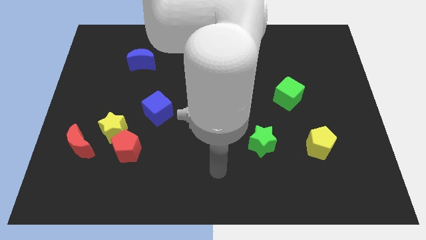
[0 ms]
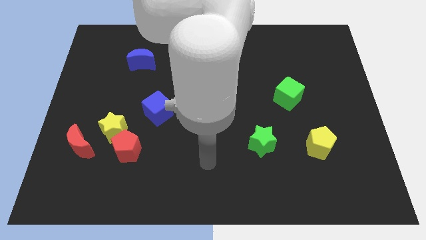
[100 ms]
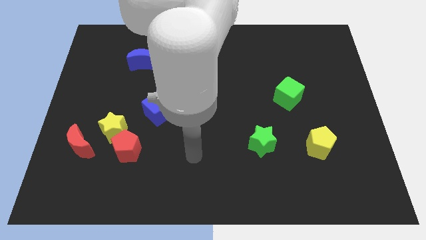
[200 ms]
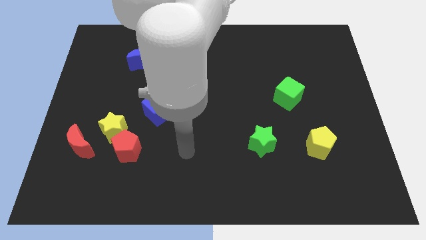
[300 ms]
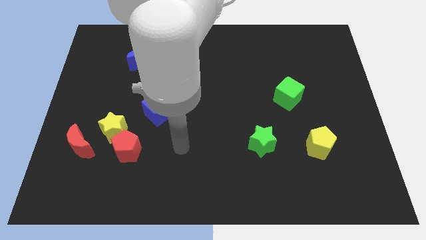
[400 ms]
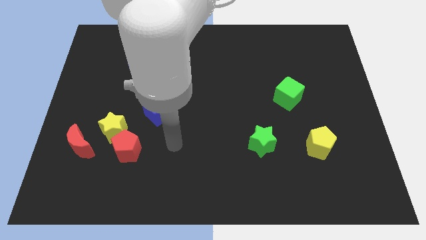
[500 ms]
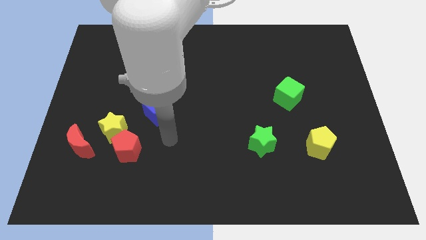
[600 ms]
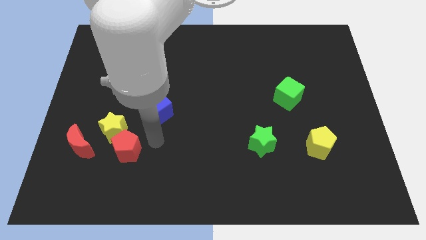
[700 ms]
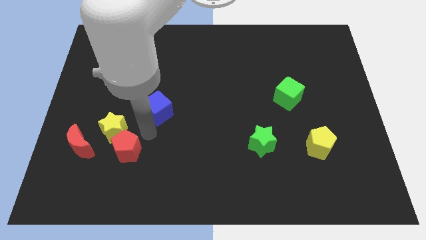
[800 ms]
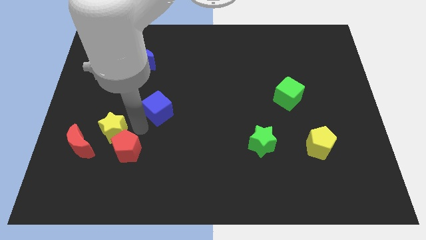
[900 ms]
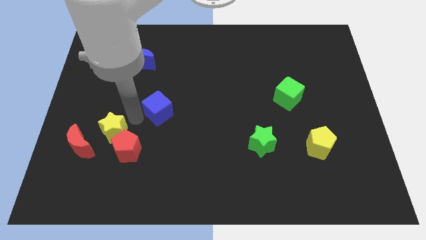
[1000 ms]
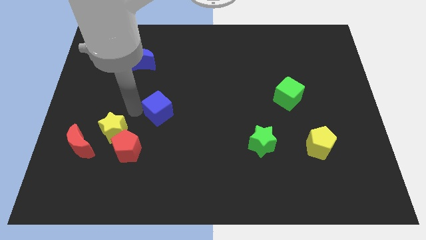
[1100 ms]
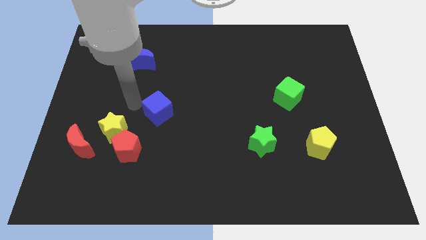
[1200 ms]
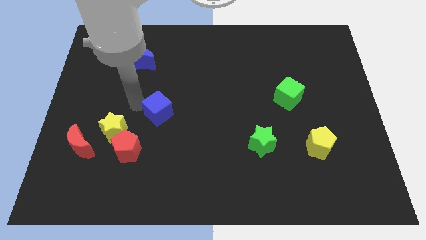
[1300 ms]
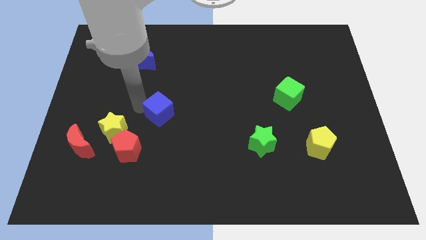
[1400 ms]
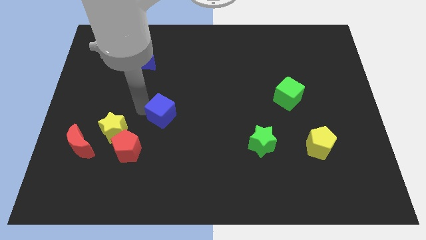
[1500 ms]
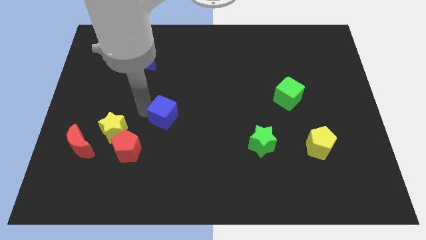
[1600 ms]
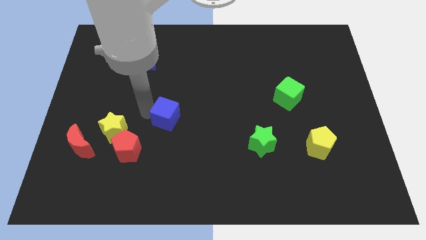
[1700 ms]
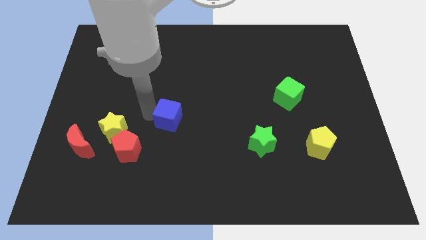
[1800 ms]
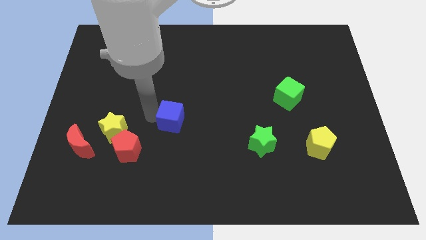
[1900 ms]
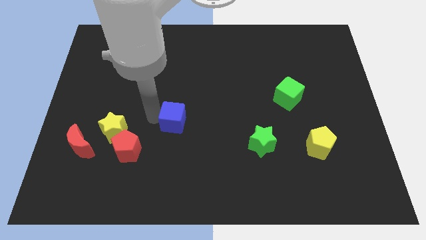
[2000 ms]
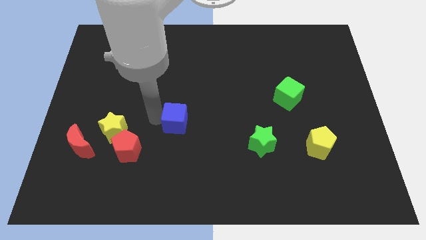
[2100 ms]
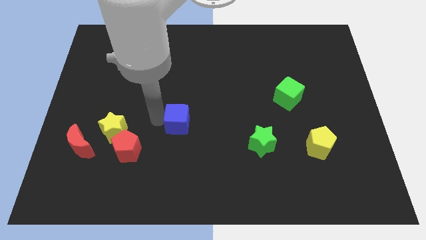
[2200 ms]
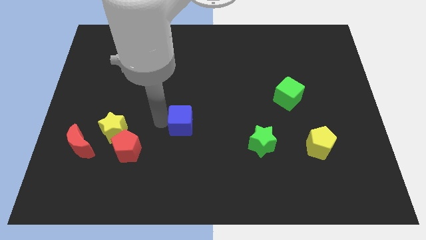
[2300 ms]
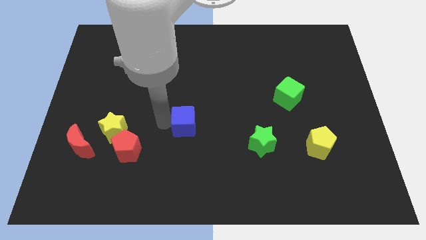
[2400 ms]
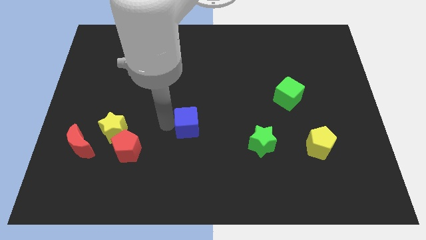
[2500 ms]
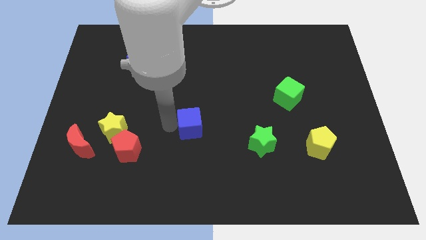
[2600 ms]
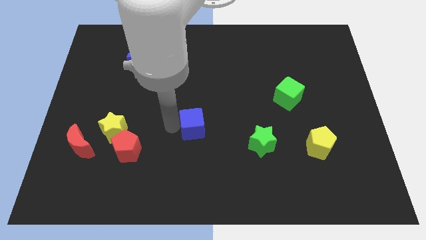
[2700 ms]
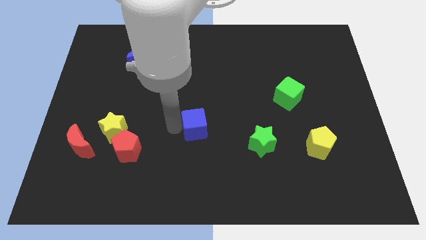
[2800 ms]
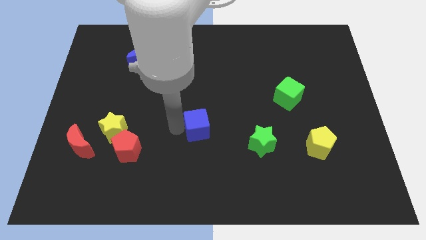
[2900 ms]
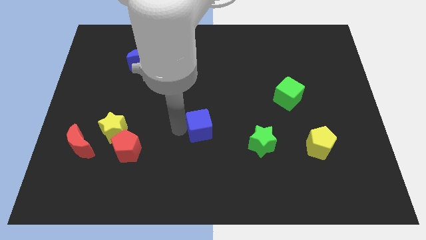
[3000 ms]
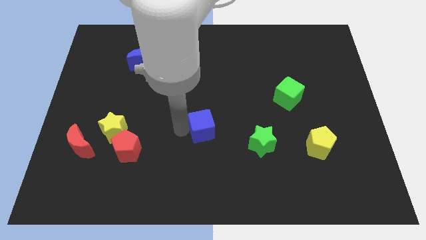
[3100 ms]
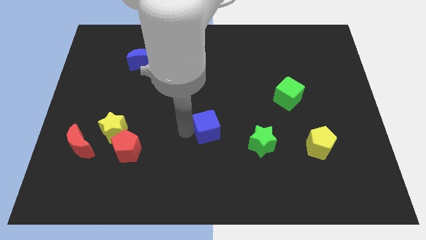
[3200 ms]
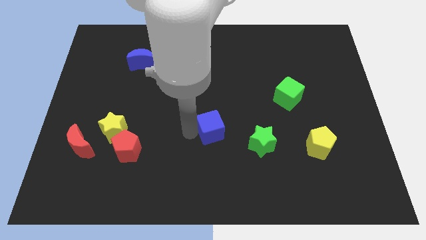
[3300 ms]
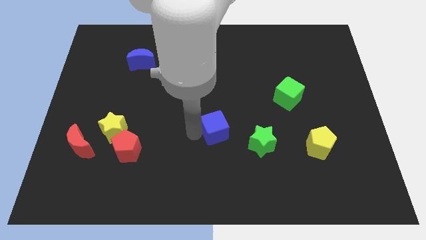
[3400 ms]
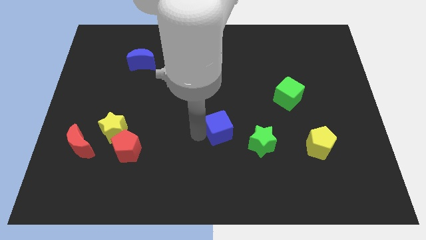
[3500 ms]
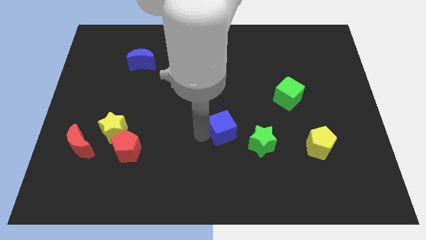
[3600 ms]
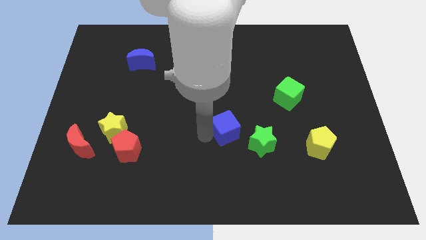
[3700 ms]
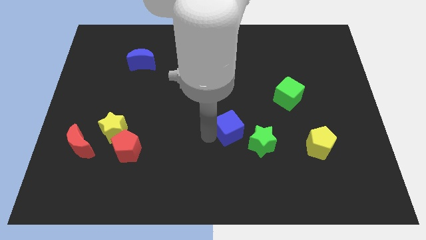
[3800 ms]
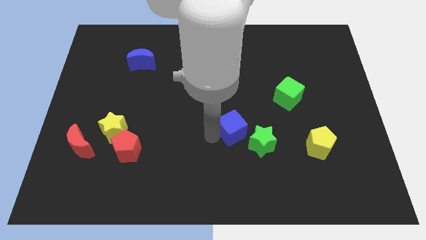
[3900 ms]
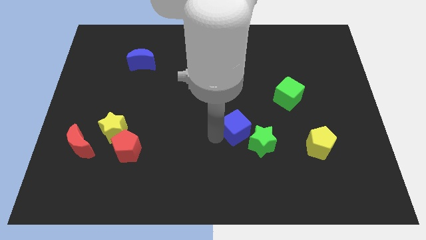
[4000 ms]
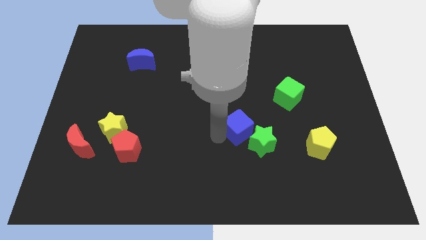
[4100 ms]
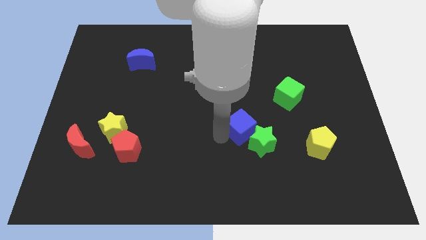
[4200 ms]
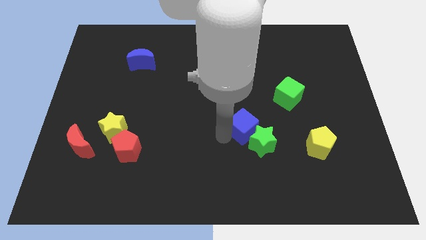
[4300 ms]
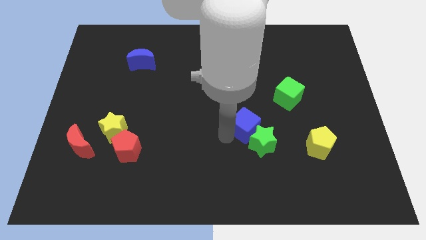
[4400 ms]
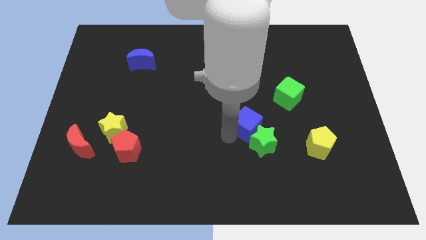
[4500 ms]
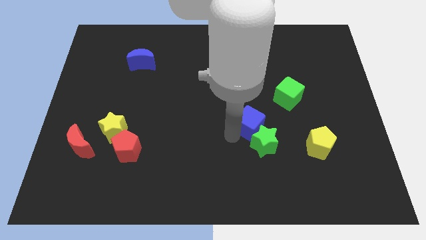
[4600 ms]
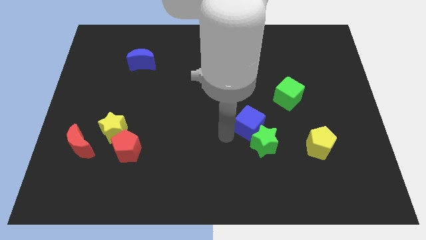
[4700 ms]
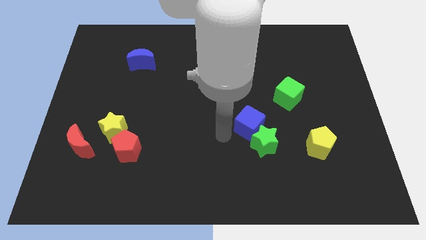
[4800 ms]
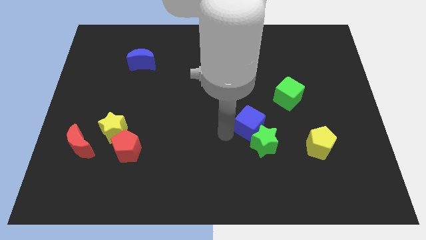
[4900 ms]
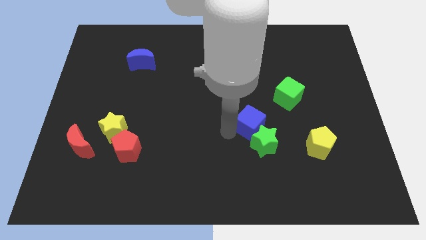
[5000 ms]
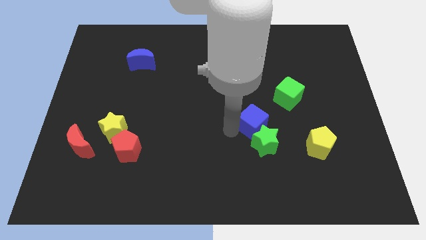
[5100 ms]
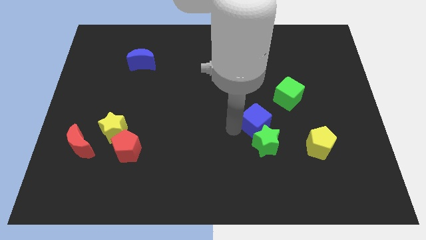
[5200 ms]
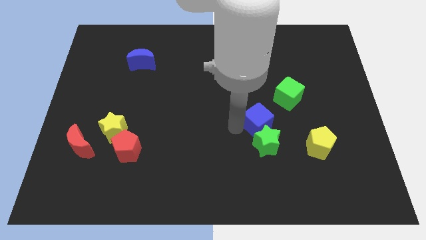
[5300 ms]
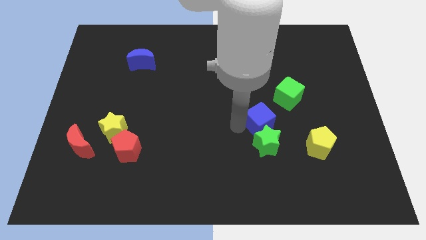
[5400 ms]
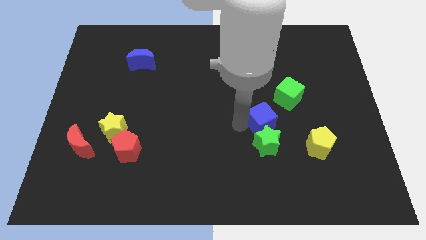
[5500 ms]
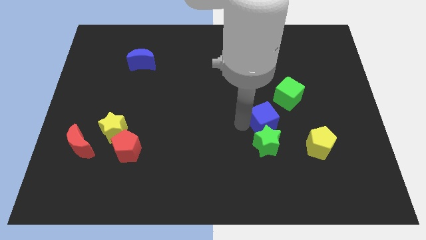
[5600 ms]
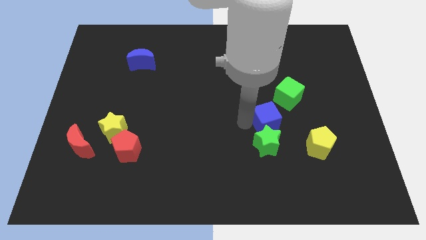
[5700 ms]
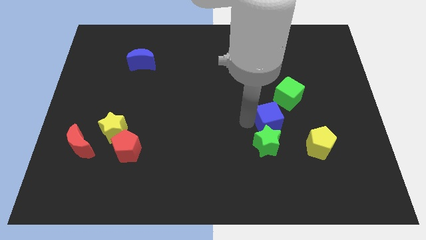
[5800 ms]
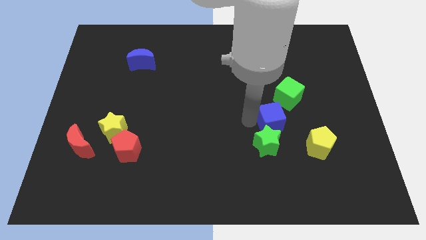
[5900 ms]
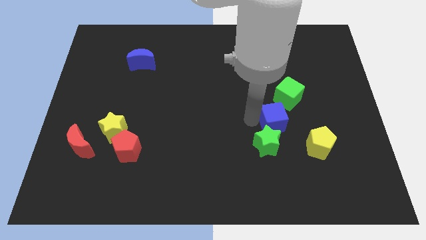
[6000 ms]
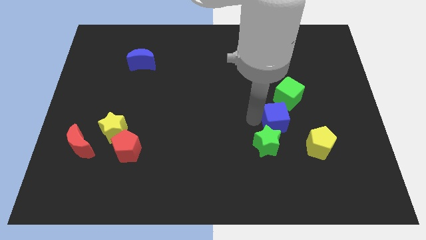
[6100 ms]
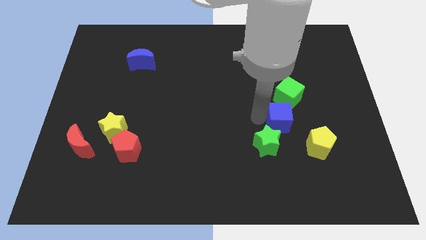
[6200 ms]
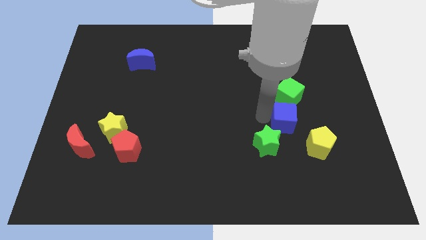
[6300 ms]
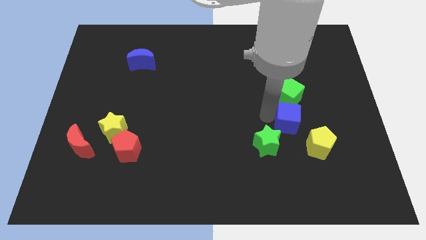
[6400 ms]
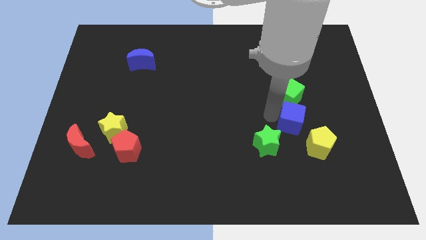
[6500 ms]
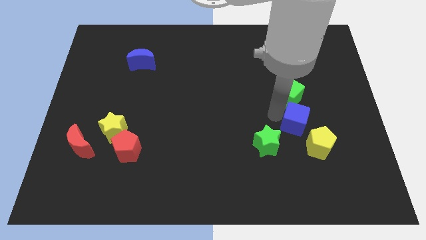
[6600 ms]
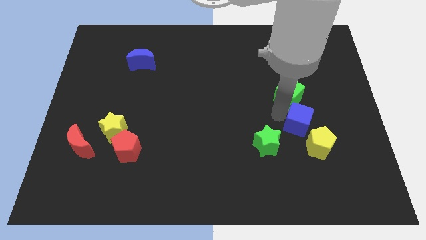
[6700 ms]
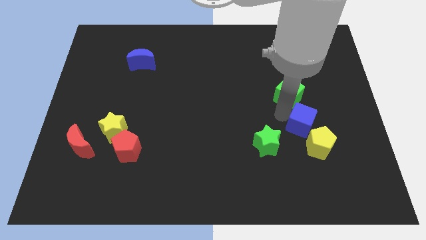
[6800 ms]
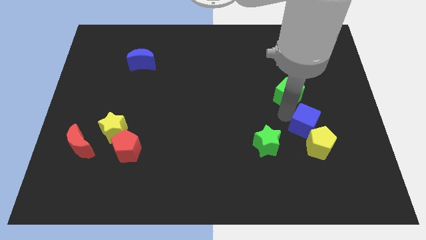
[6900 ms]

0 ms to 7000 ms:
move the blue cube towards the yellow pentagon

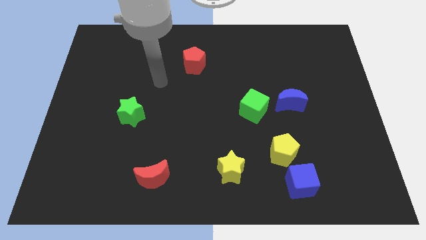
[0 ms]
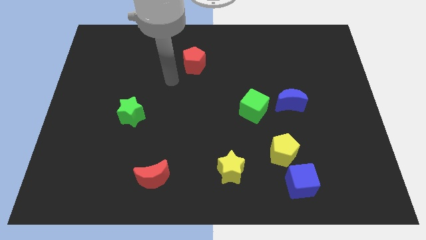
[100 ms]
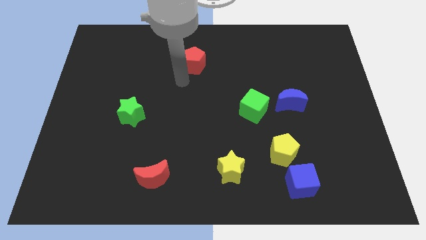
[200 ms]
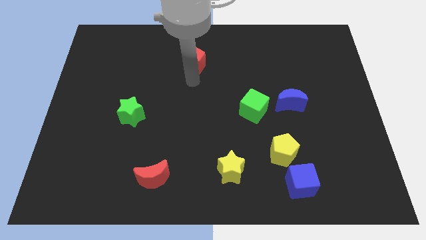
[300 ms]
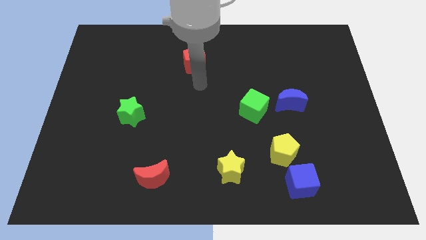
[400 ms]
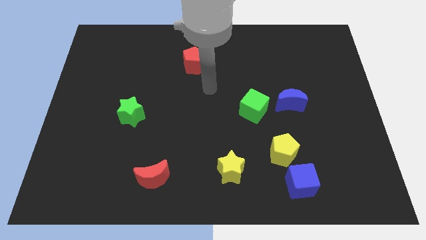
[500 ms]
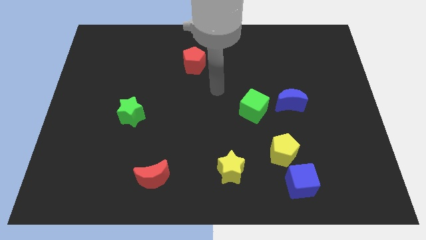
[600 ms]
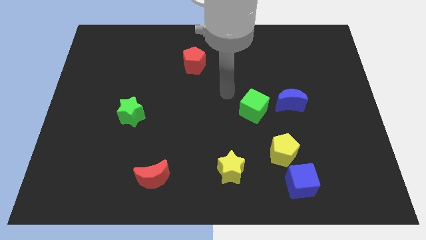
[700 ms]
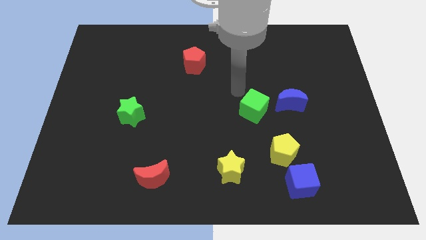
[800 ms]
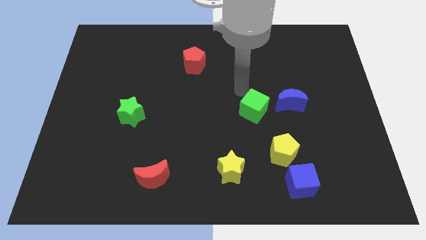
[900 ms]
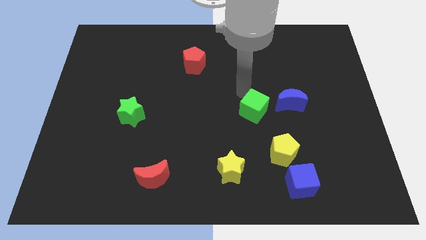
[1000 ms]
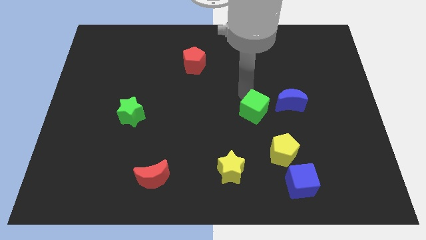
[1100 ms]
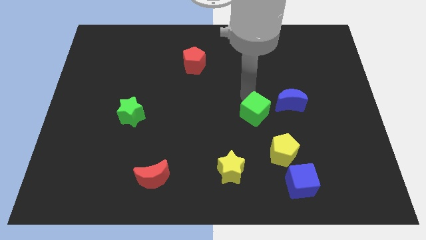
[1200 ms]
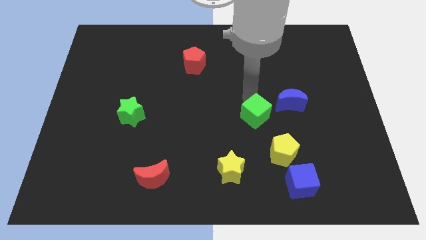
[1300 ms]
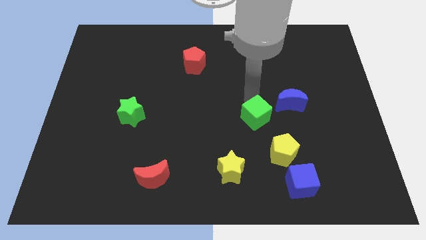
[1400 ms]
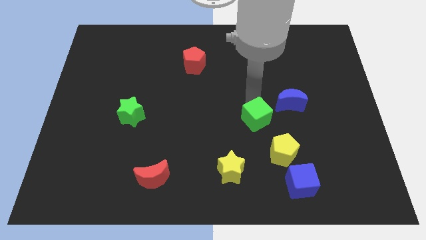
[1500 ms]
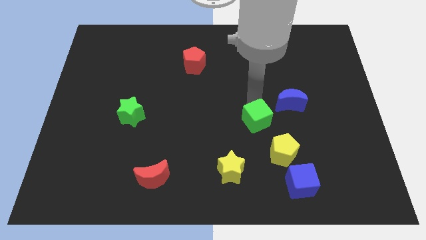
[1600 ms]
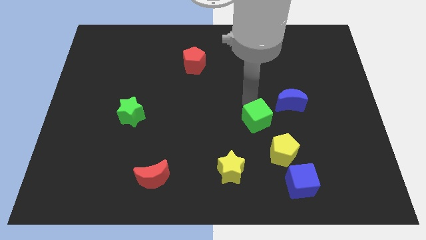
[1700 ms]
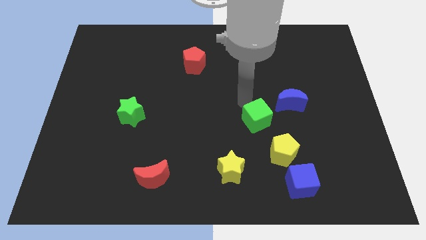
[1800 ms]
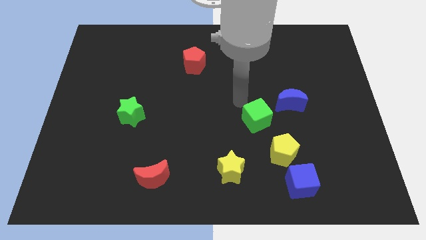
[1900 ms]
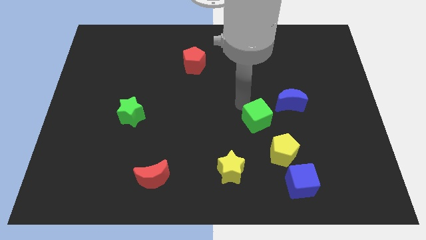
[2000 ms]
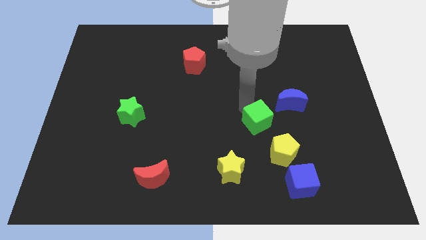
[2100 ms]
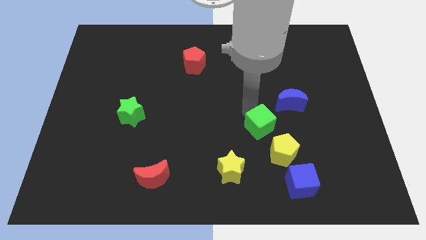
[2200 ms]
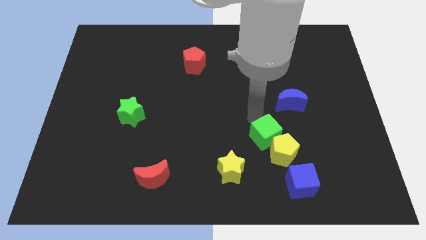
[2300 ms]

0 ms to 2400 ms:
put the green cube towards the yellow pentagon
